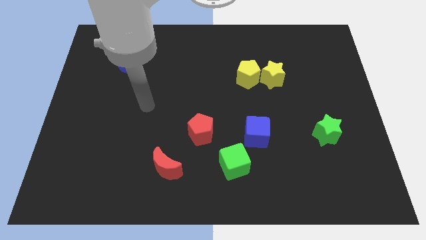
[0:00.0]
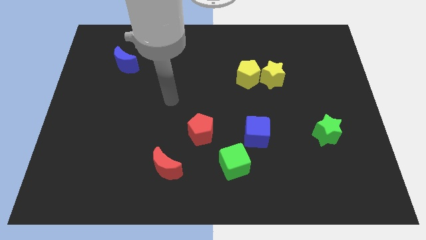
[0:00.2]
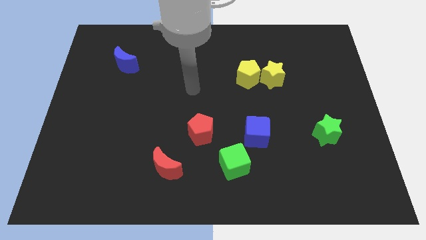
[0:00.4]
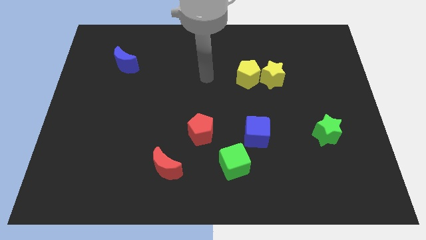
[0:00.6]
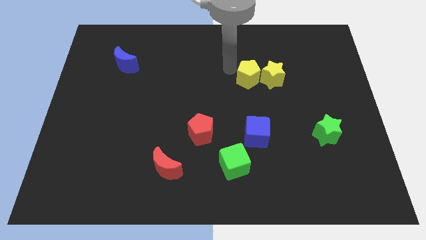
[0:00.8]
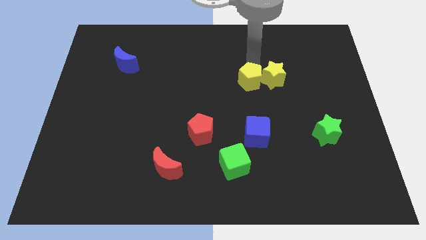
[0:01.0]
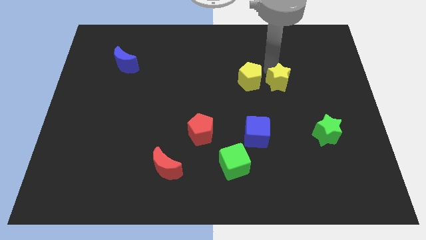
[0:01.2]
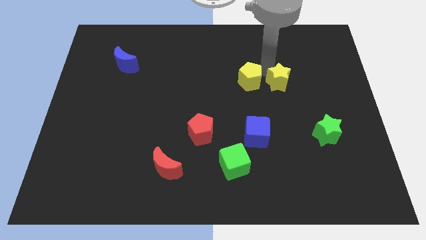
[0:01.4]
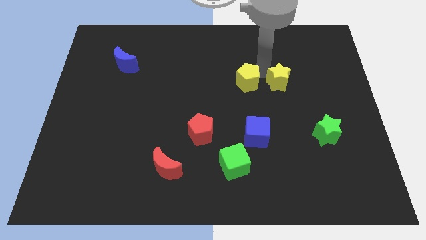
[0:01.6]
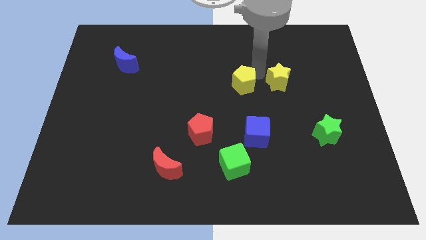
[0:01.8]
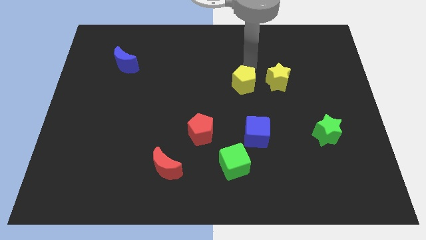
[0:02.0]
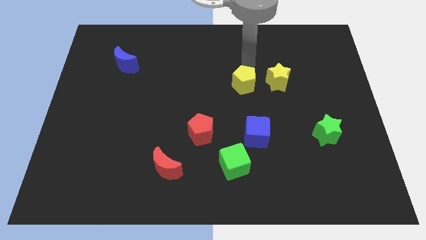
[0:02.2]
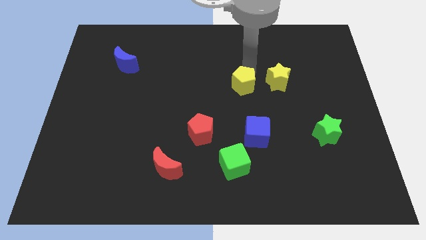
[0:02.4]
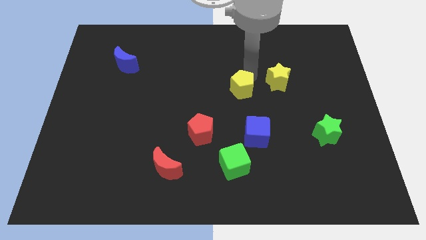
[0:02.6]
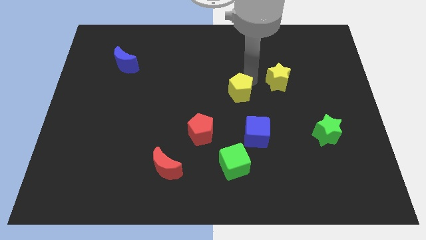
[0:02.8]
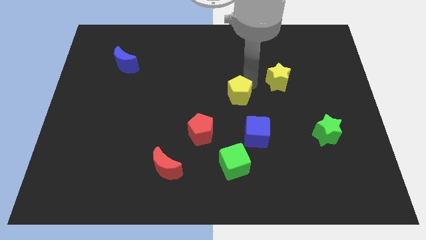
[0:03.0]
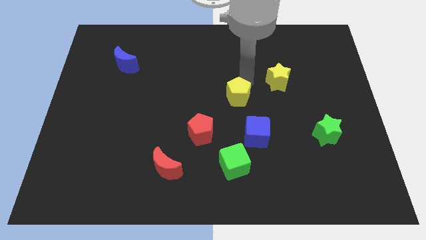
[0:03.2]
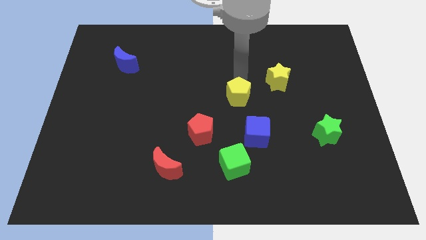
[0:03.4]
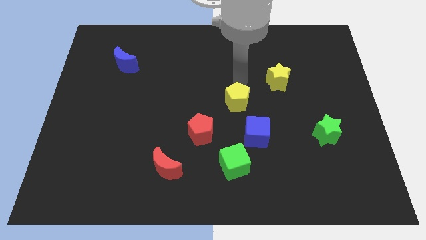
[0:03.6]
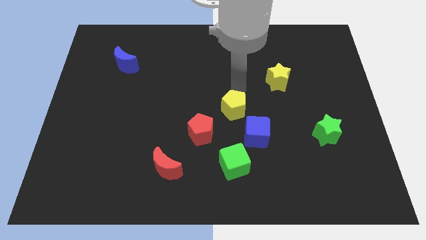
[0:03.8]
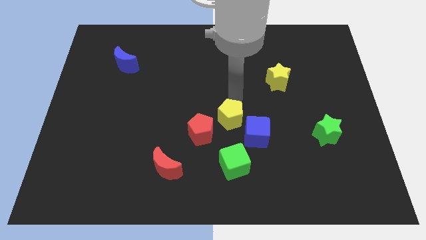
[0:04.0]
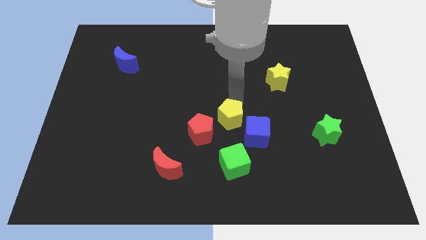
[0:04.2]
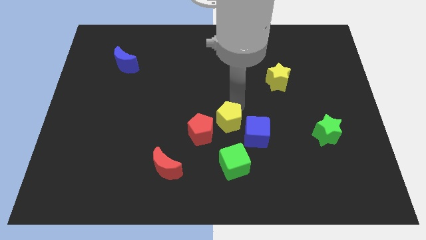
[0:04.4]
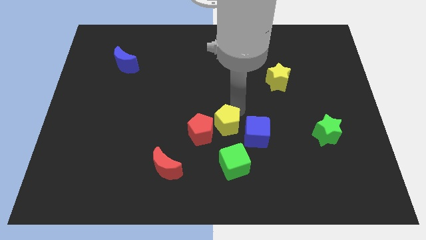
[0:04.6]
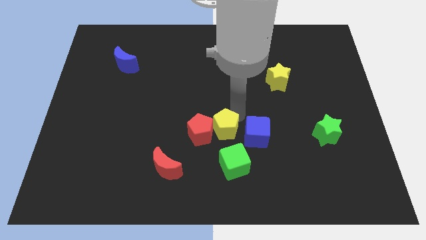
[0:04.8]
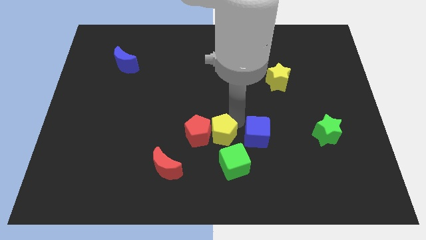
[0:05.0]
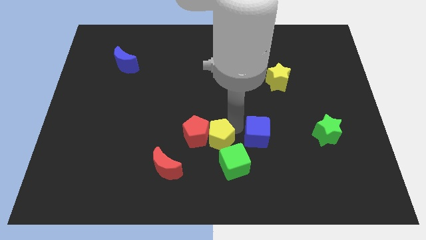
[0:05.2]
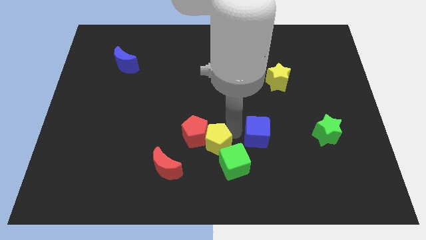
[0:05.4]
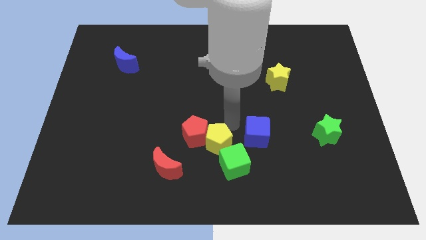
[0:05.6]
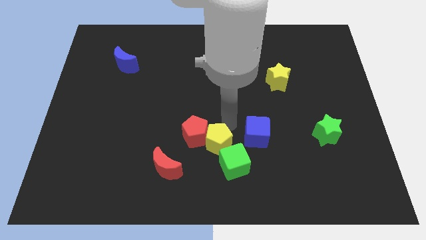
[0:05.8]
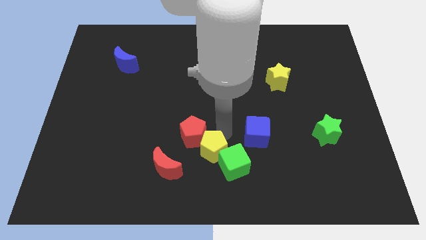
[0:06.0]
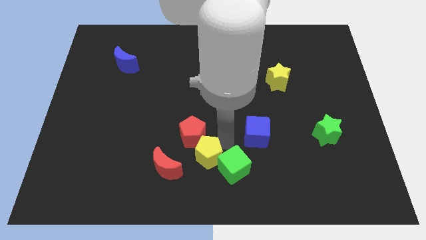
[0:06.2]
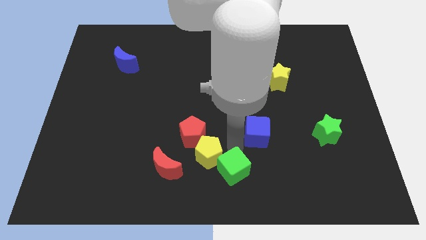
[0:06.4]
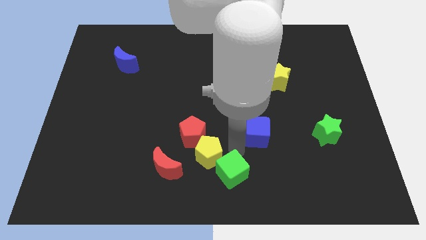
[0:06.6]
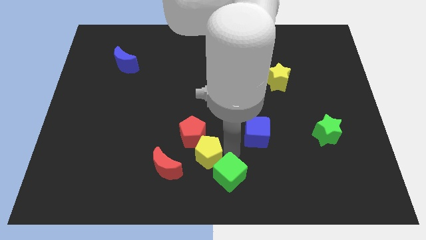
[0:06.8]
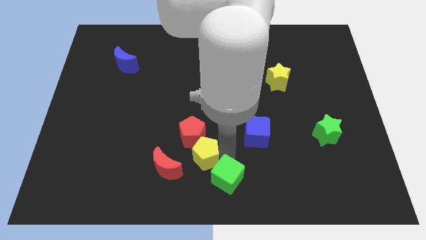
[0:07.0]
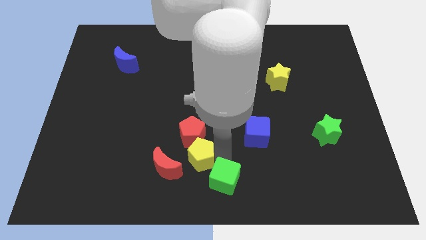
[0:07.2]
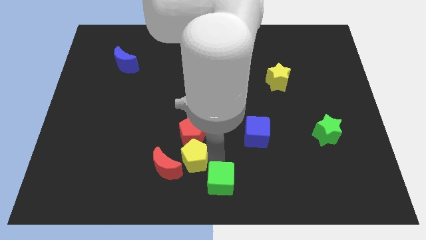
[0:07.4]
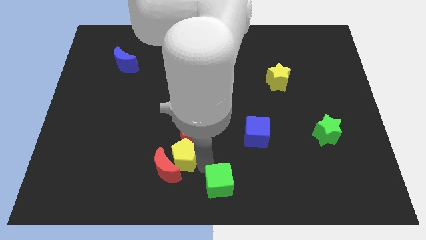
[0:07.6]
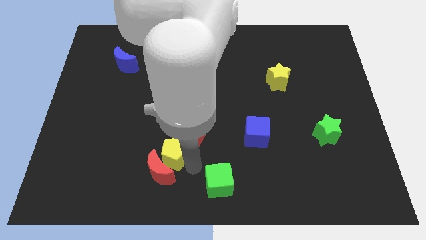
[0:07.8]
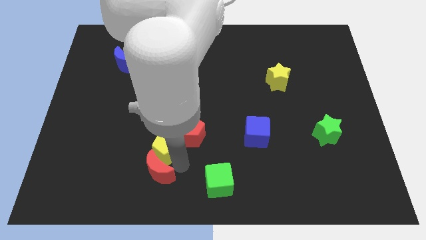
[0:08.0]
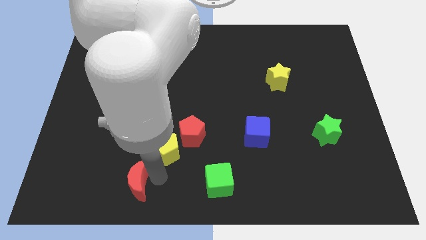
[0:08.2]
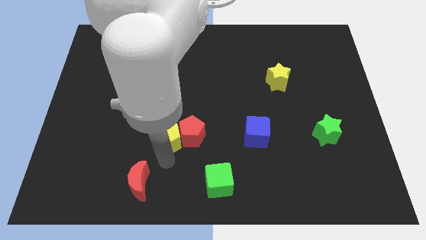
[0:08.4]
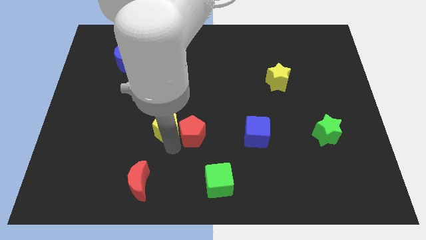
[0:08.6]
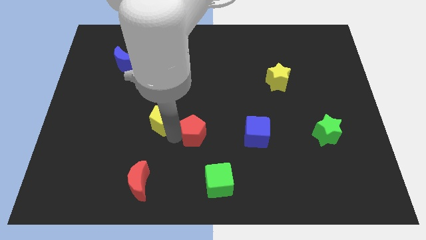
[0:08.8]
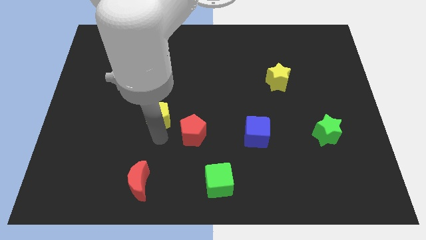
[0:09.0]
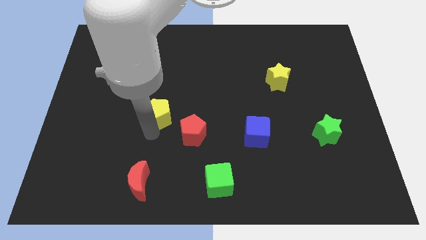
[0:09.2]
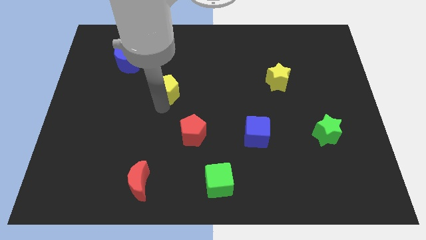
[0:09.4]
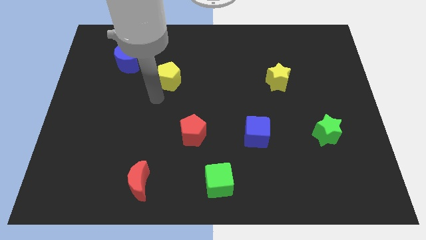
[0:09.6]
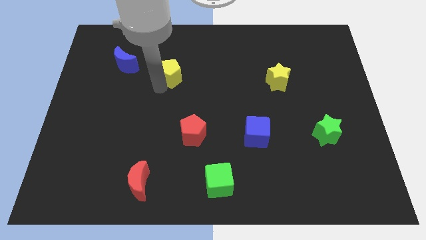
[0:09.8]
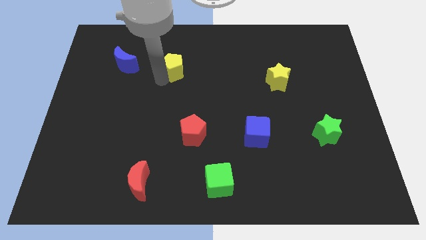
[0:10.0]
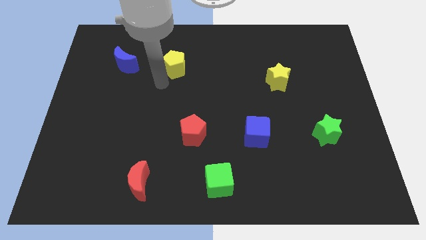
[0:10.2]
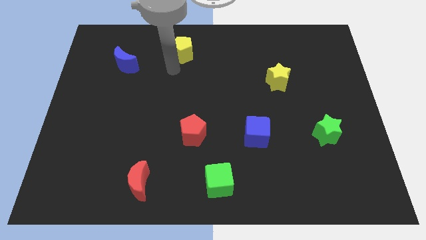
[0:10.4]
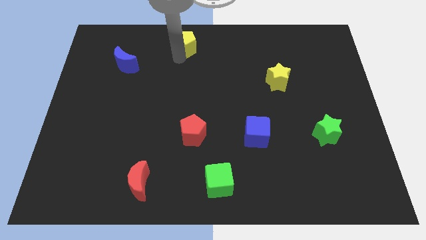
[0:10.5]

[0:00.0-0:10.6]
move the yellow pentagon to the top side
